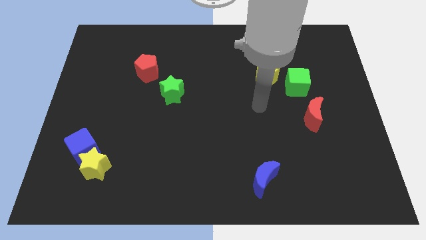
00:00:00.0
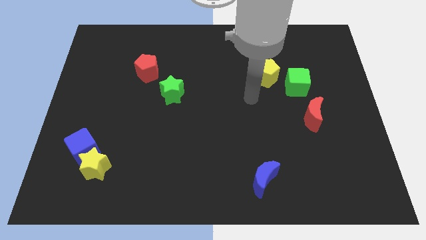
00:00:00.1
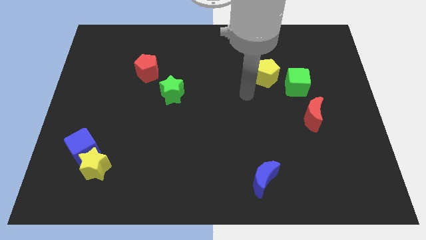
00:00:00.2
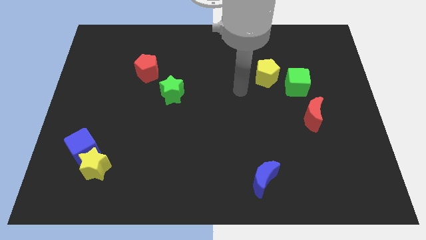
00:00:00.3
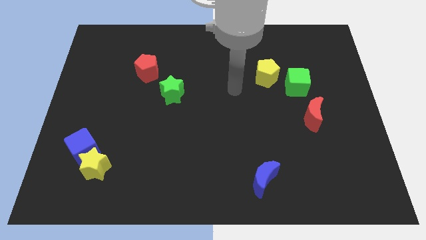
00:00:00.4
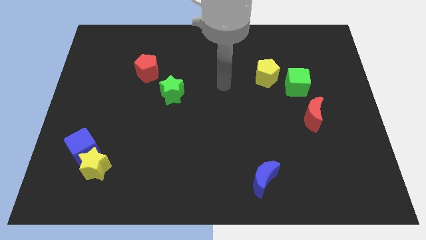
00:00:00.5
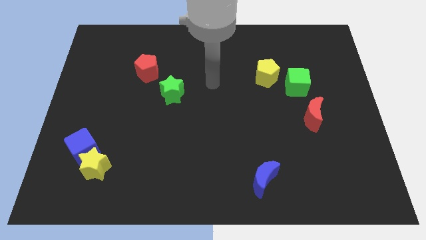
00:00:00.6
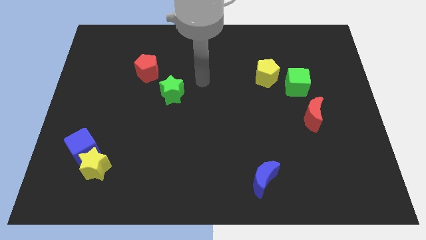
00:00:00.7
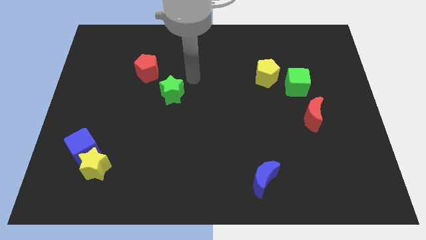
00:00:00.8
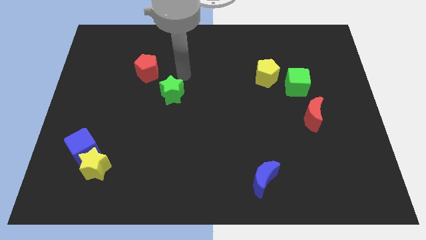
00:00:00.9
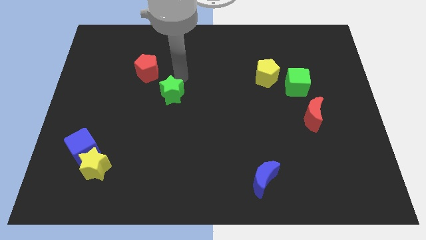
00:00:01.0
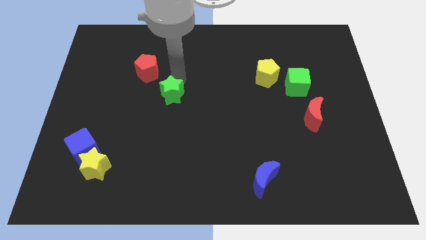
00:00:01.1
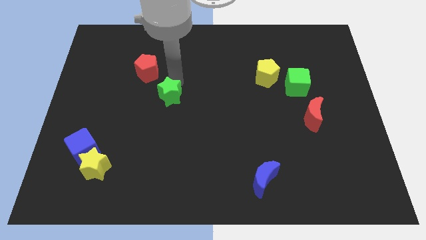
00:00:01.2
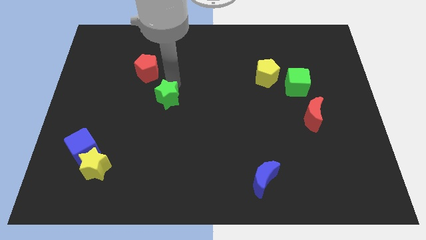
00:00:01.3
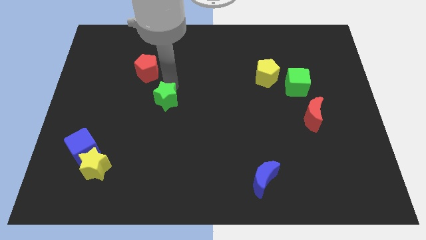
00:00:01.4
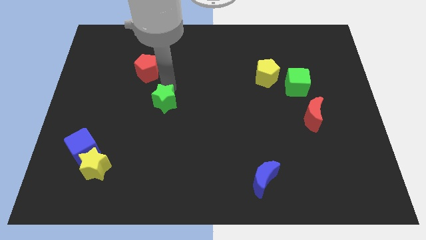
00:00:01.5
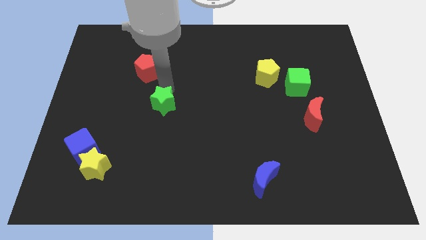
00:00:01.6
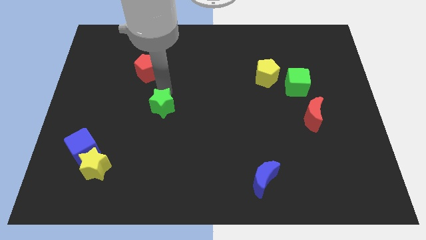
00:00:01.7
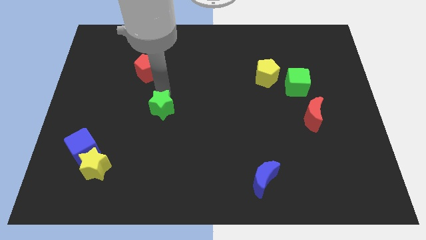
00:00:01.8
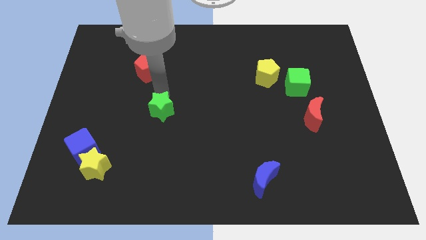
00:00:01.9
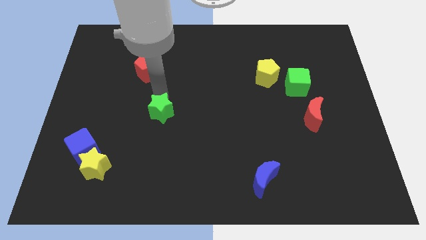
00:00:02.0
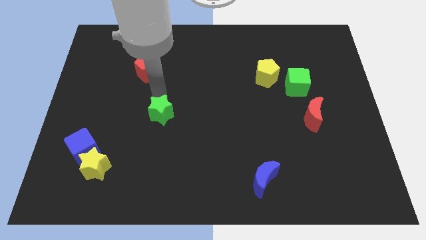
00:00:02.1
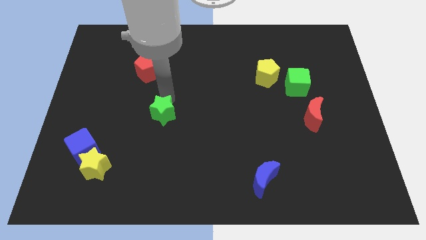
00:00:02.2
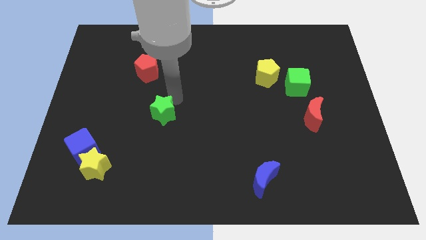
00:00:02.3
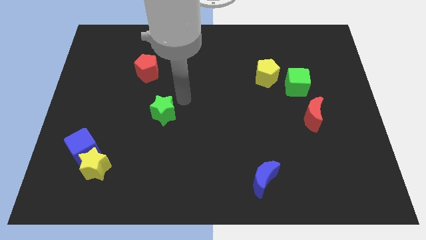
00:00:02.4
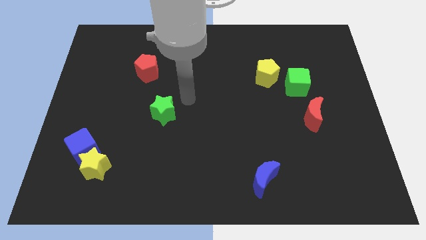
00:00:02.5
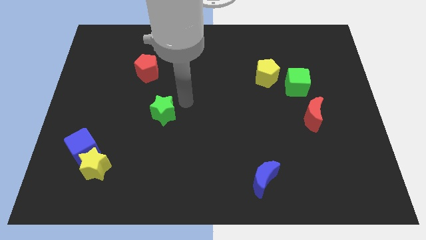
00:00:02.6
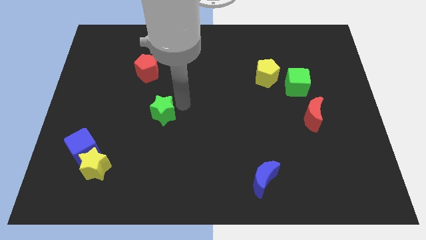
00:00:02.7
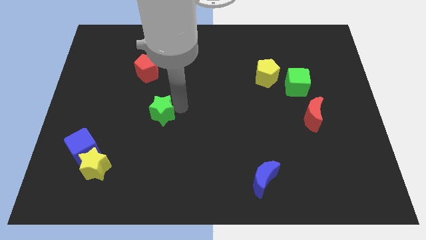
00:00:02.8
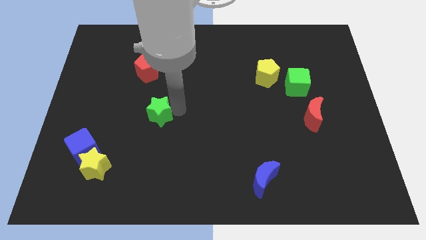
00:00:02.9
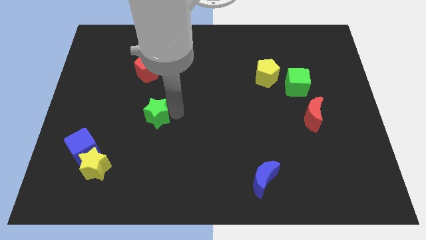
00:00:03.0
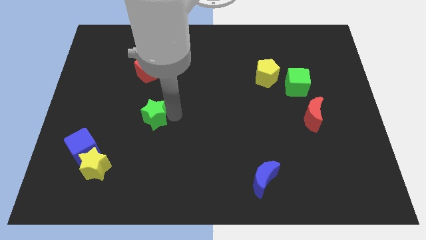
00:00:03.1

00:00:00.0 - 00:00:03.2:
slightly move the green star down and then left

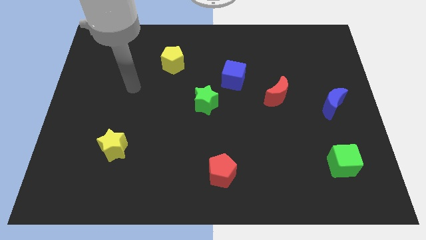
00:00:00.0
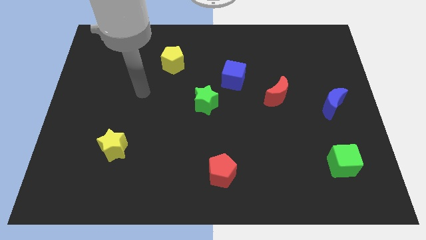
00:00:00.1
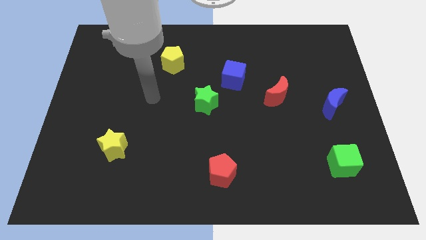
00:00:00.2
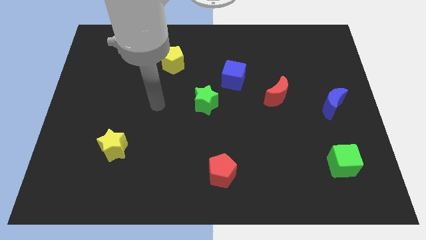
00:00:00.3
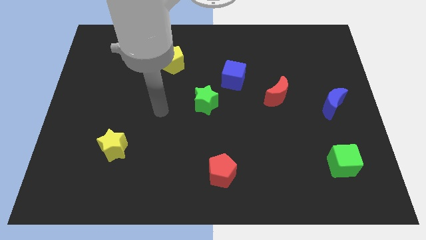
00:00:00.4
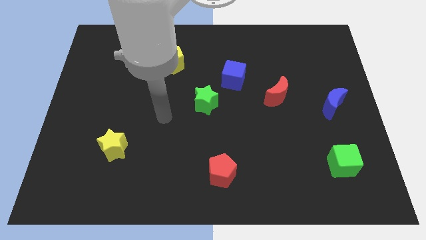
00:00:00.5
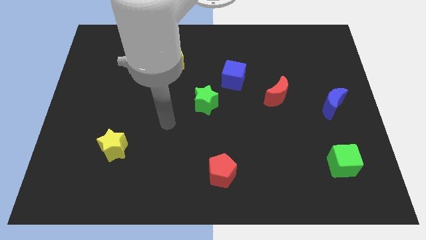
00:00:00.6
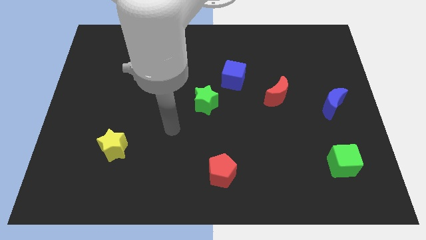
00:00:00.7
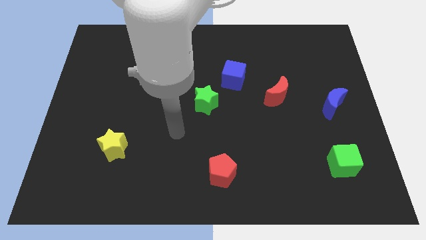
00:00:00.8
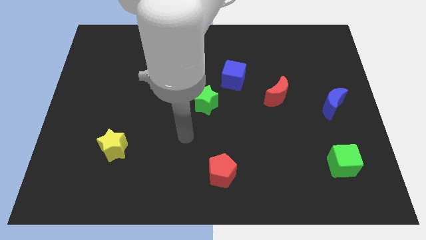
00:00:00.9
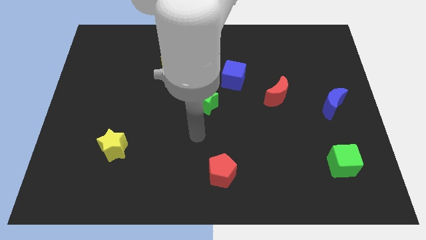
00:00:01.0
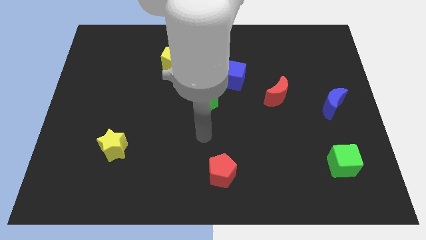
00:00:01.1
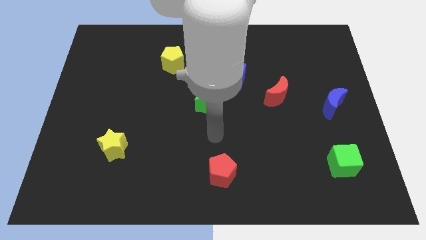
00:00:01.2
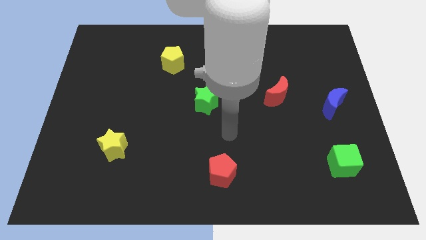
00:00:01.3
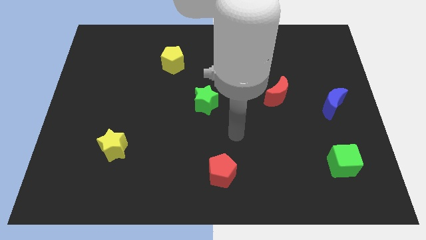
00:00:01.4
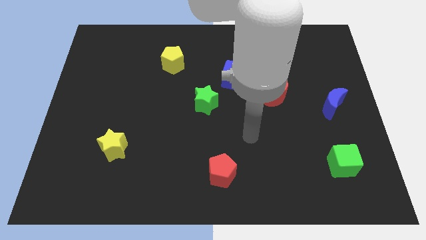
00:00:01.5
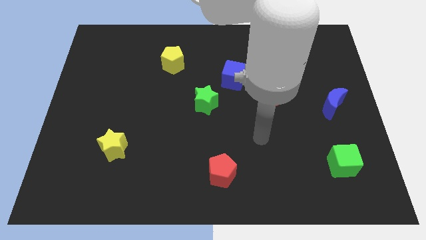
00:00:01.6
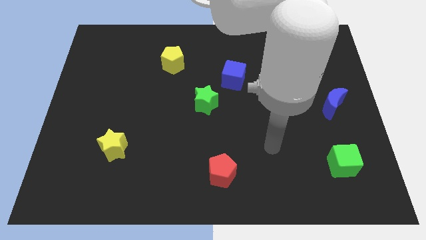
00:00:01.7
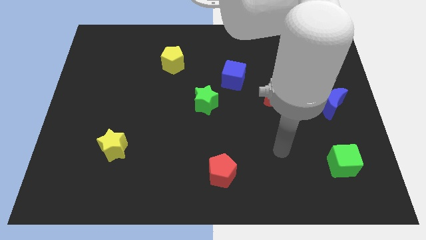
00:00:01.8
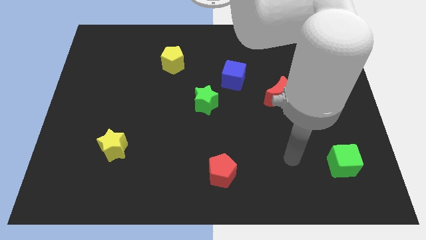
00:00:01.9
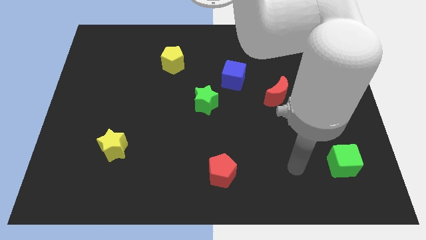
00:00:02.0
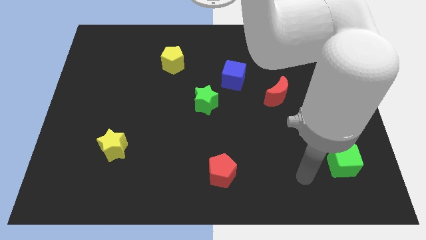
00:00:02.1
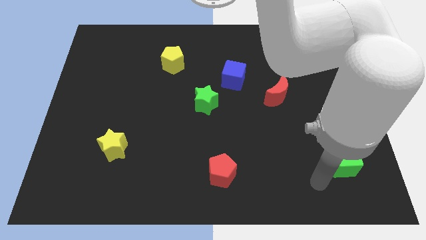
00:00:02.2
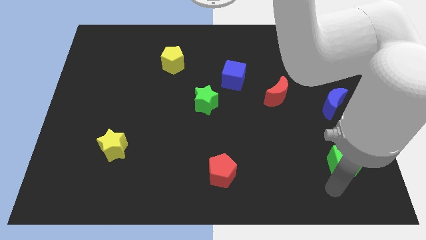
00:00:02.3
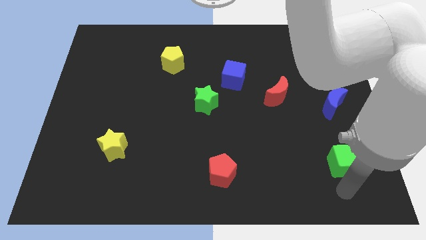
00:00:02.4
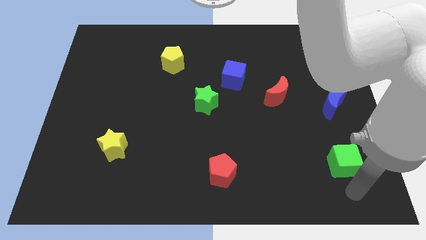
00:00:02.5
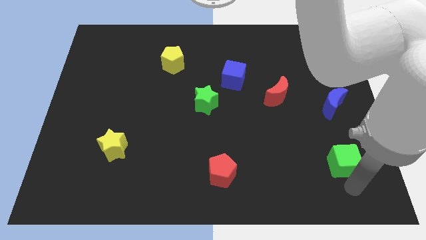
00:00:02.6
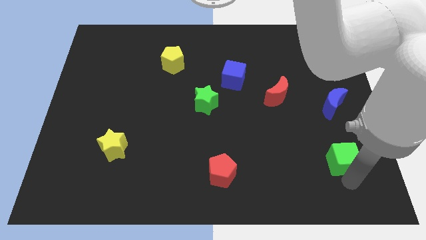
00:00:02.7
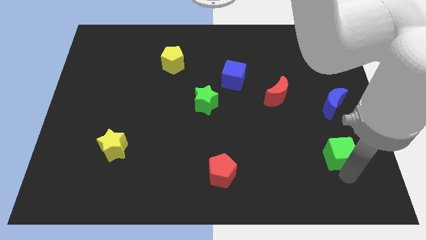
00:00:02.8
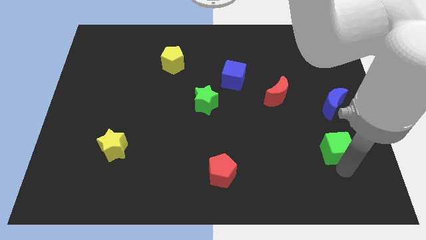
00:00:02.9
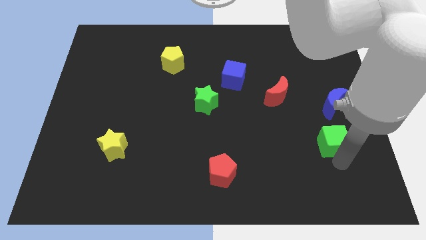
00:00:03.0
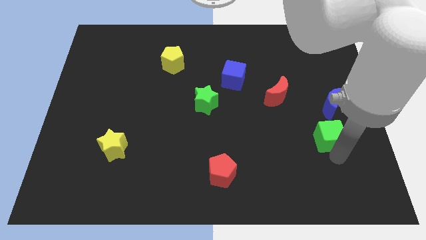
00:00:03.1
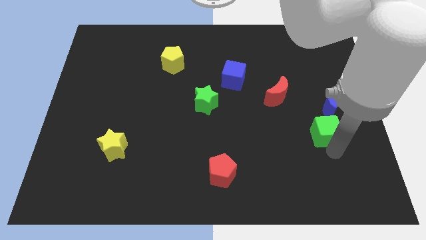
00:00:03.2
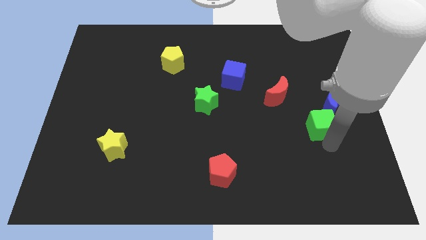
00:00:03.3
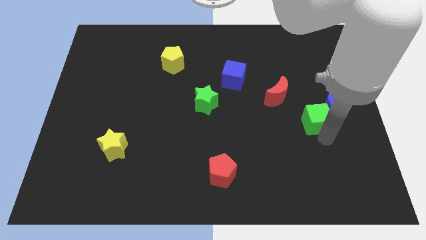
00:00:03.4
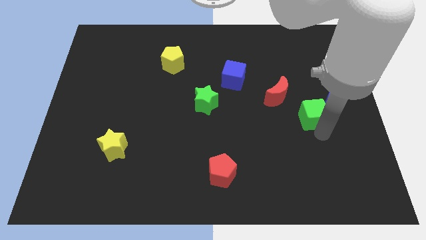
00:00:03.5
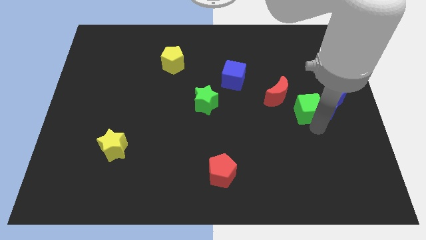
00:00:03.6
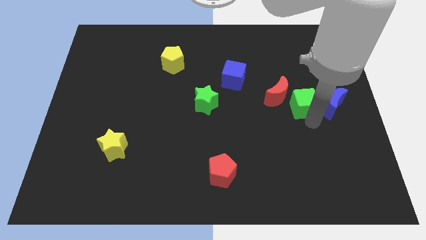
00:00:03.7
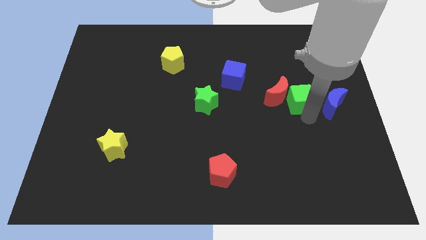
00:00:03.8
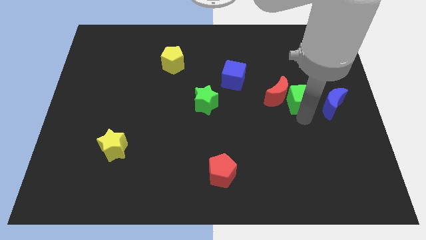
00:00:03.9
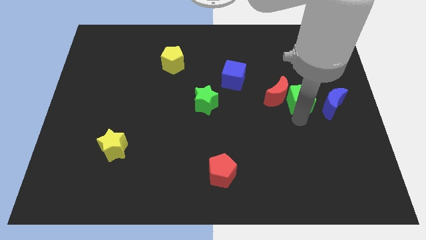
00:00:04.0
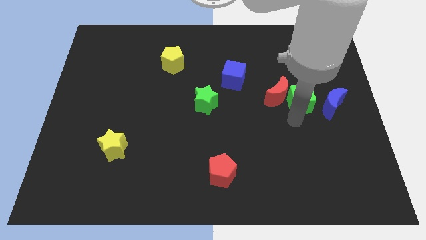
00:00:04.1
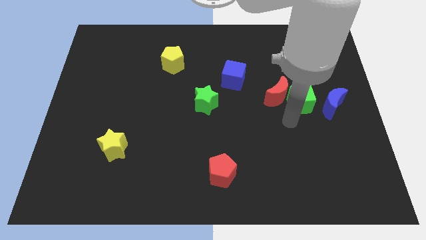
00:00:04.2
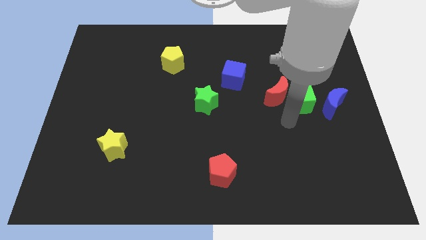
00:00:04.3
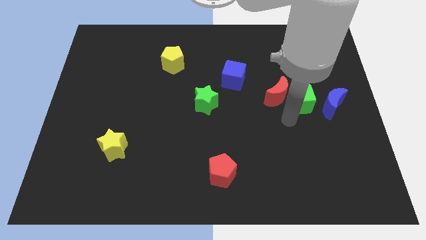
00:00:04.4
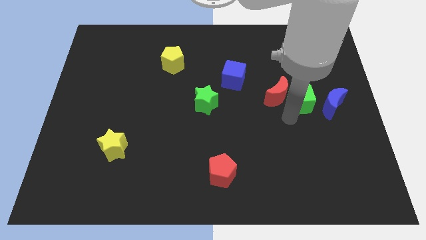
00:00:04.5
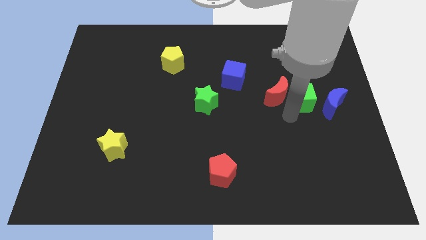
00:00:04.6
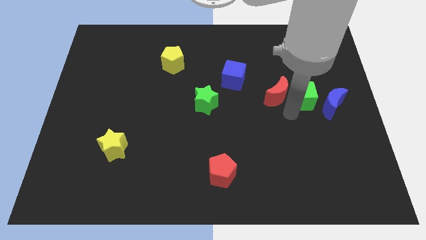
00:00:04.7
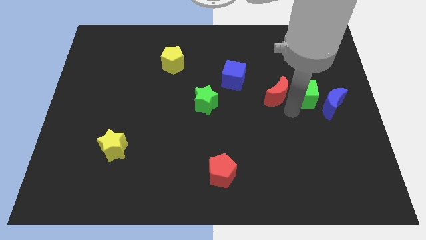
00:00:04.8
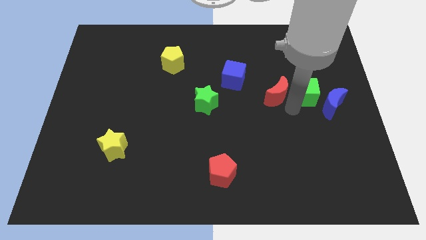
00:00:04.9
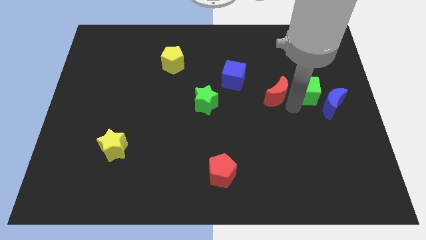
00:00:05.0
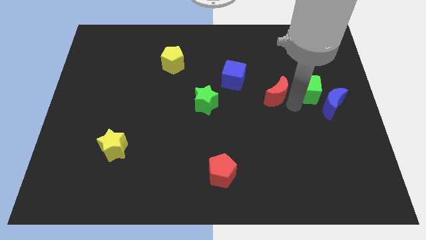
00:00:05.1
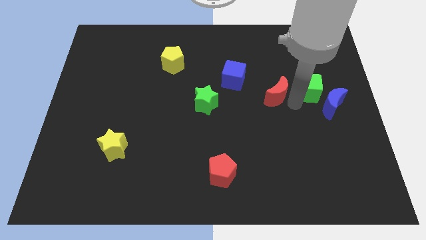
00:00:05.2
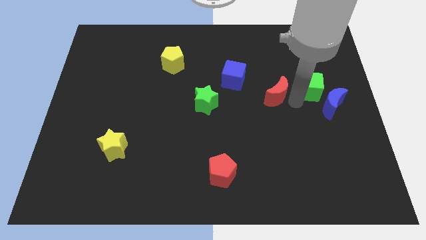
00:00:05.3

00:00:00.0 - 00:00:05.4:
slide the green cube upwards
